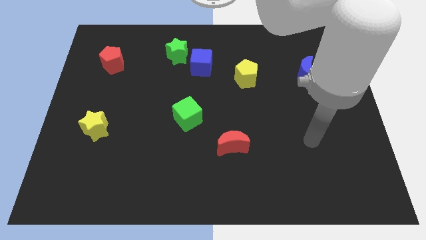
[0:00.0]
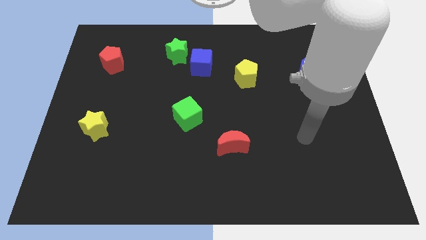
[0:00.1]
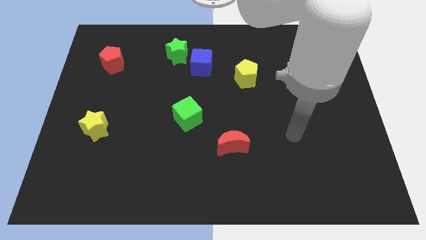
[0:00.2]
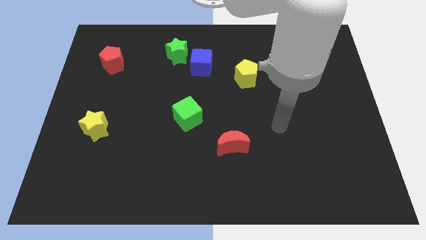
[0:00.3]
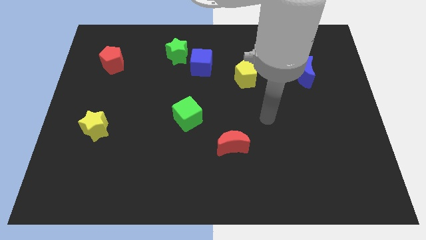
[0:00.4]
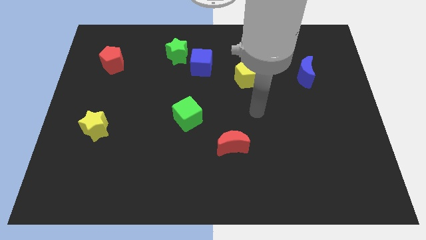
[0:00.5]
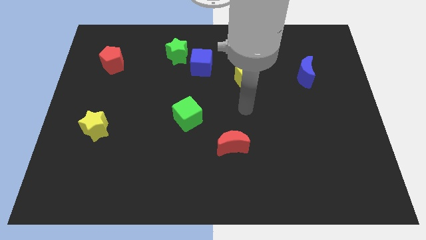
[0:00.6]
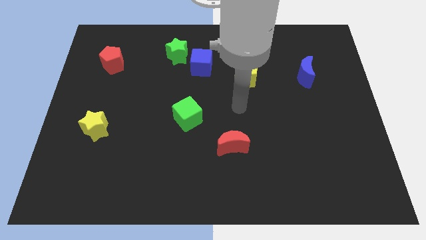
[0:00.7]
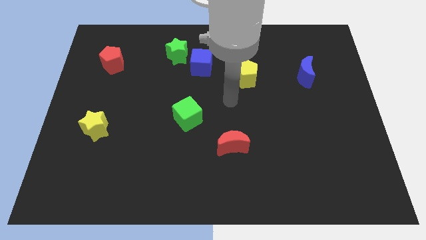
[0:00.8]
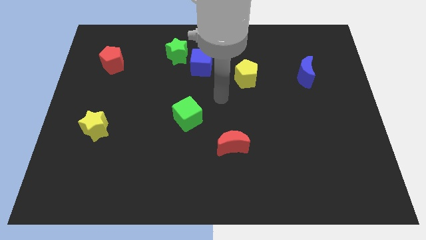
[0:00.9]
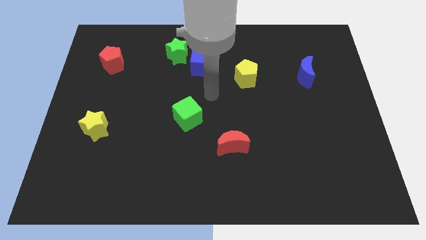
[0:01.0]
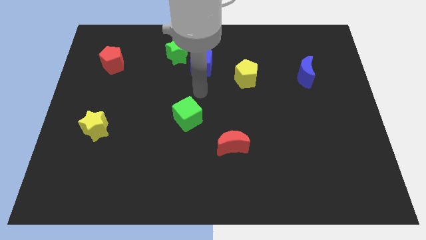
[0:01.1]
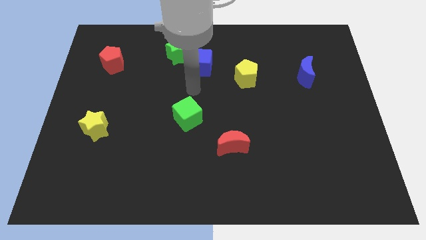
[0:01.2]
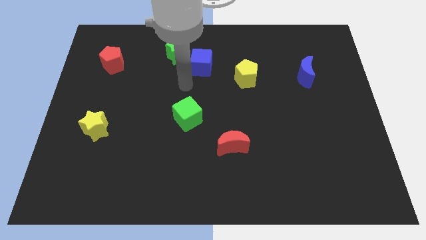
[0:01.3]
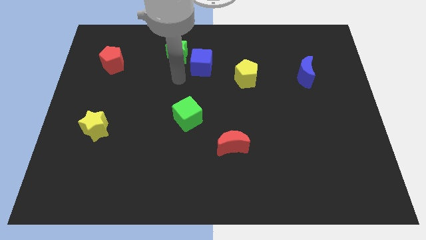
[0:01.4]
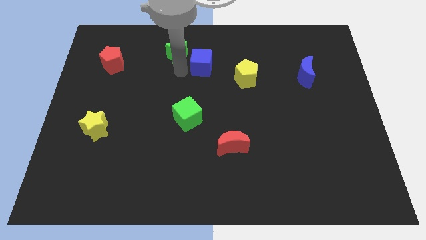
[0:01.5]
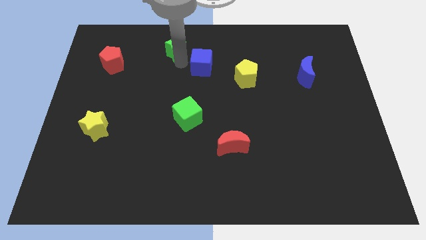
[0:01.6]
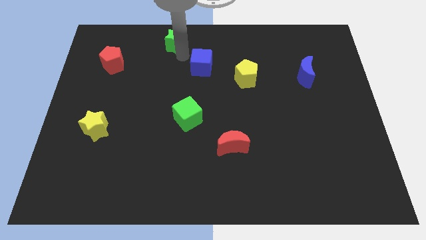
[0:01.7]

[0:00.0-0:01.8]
pull the blue cube apart from the green star

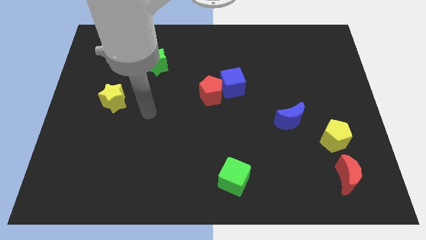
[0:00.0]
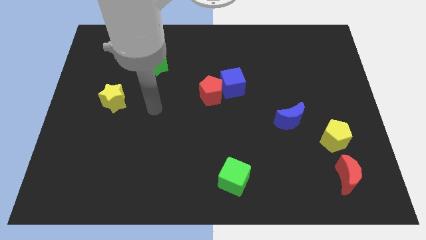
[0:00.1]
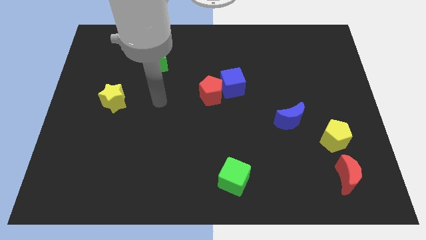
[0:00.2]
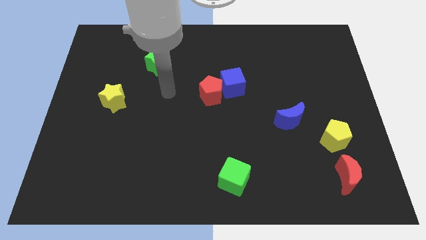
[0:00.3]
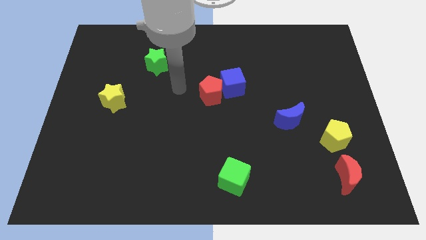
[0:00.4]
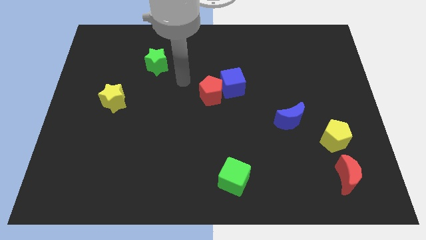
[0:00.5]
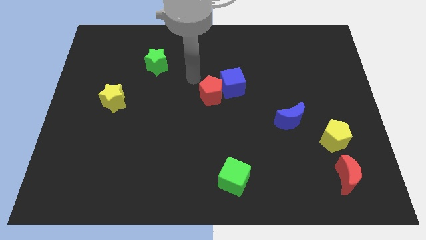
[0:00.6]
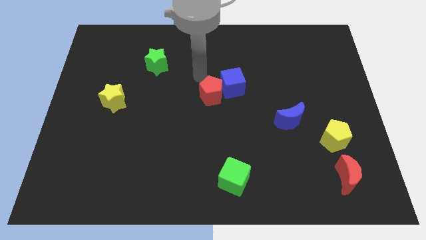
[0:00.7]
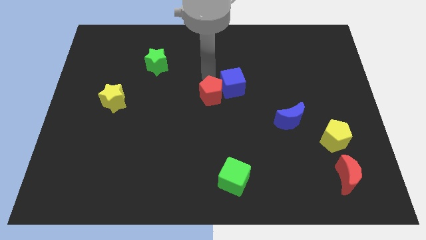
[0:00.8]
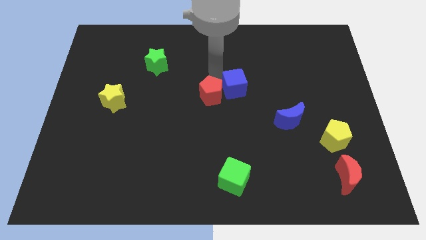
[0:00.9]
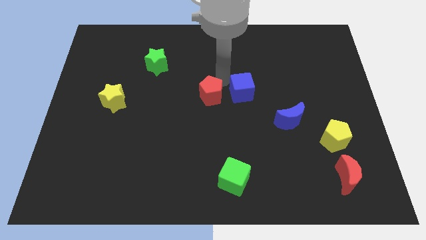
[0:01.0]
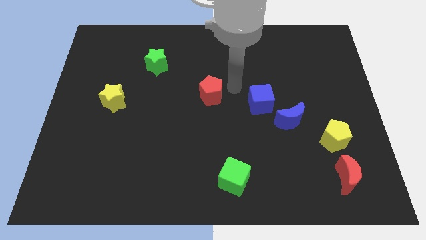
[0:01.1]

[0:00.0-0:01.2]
separate the red pentagon from the blue cube

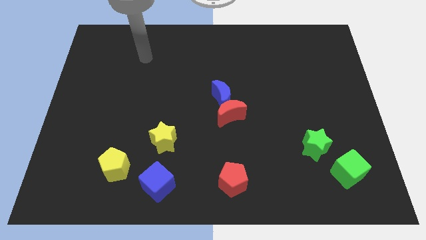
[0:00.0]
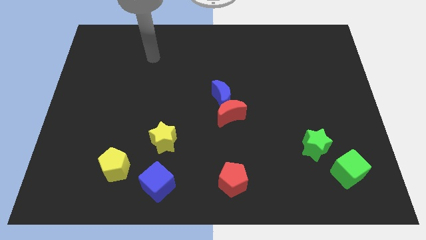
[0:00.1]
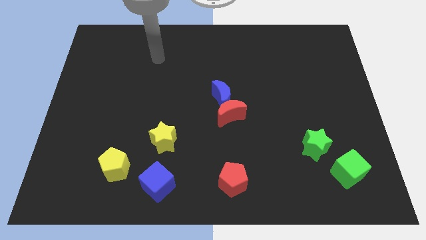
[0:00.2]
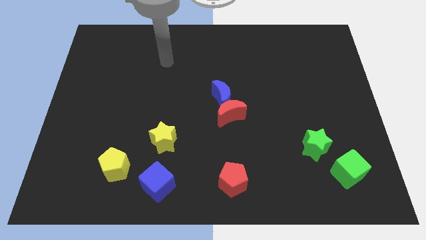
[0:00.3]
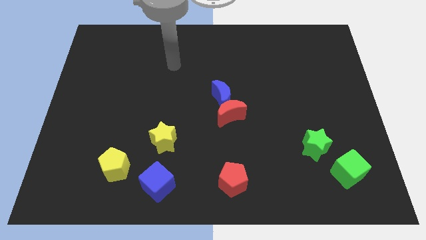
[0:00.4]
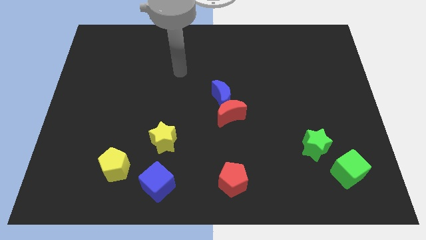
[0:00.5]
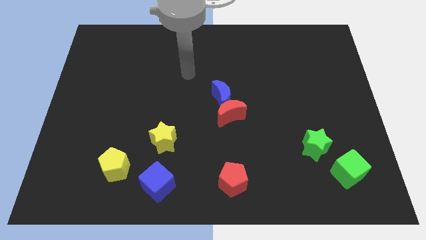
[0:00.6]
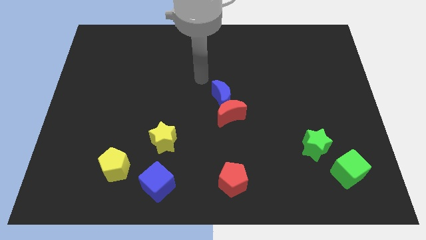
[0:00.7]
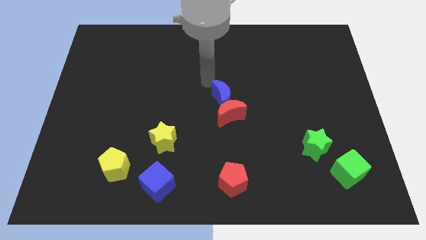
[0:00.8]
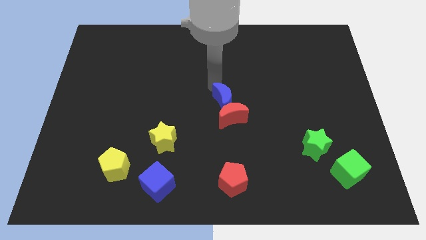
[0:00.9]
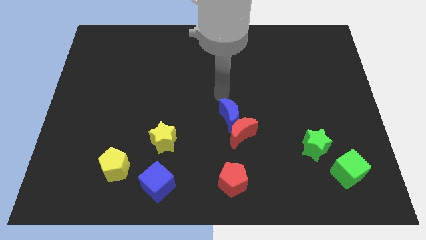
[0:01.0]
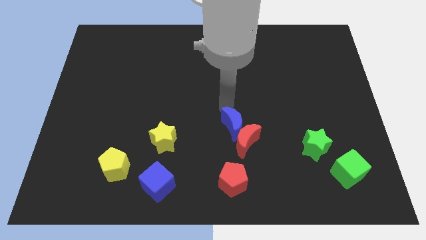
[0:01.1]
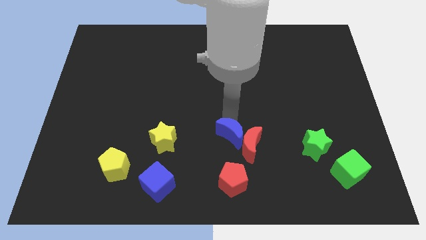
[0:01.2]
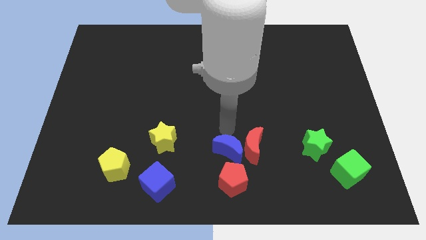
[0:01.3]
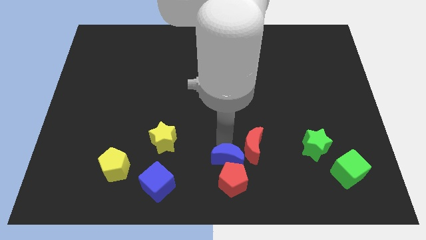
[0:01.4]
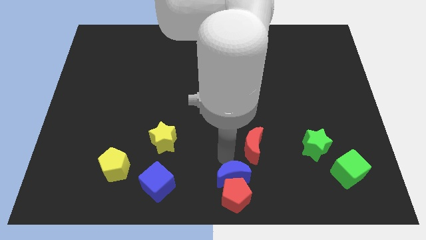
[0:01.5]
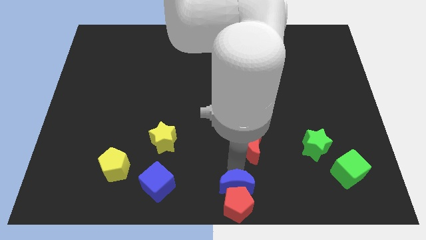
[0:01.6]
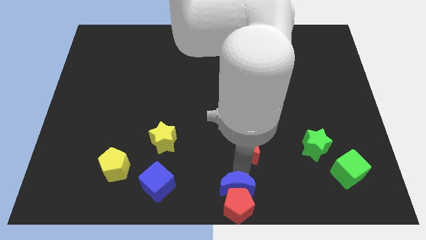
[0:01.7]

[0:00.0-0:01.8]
move the red moon away from the blue moon

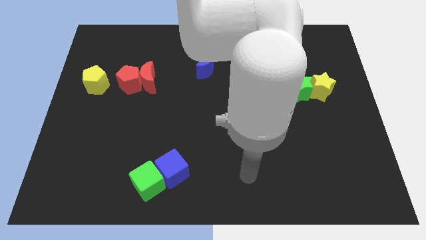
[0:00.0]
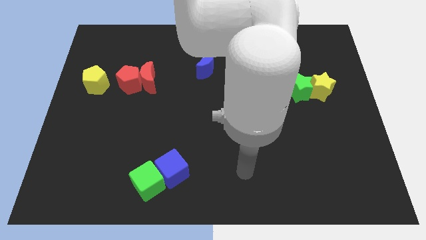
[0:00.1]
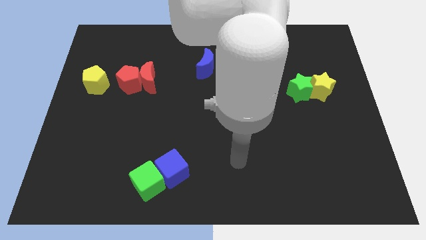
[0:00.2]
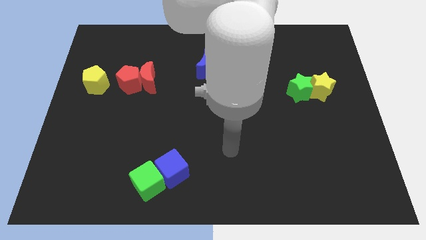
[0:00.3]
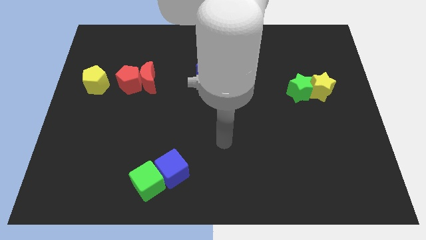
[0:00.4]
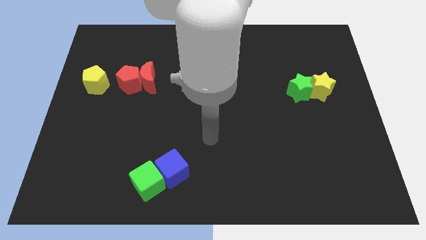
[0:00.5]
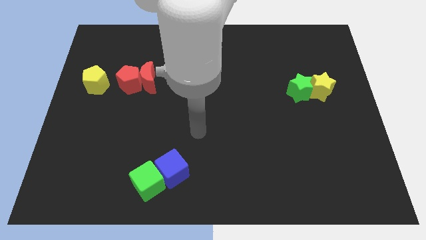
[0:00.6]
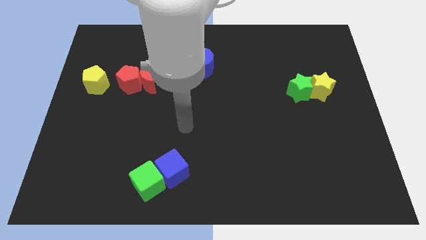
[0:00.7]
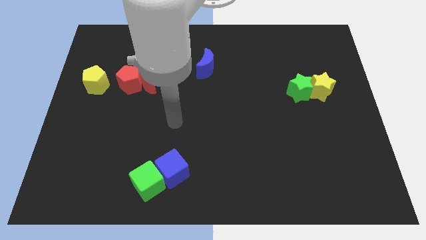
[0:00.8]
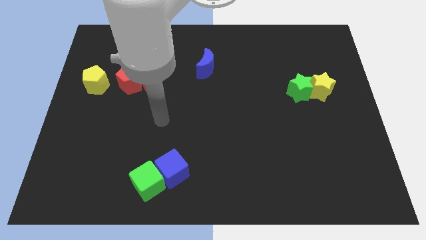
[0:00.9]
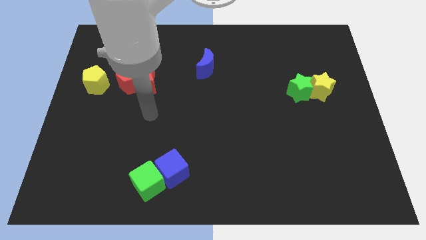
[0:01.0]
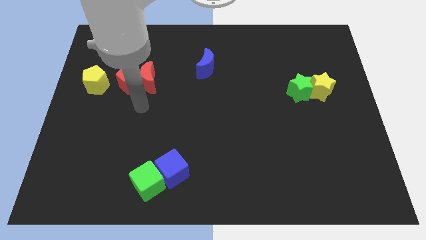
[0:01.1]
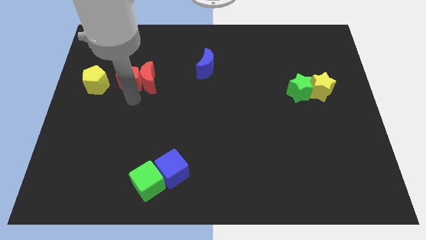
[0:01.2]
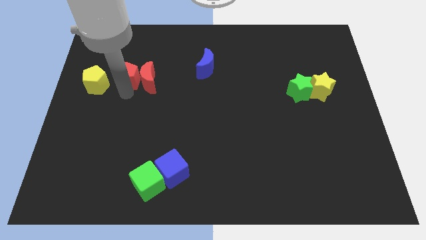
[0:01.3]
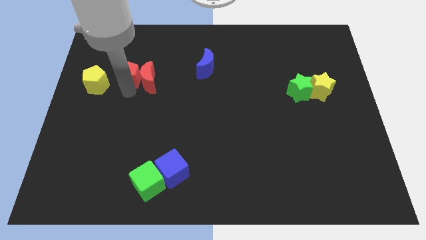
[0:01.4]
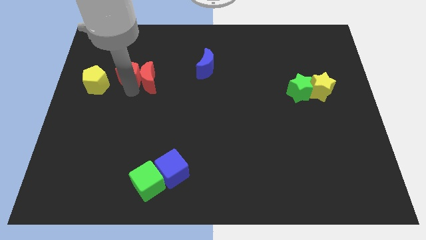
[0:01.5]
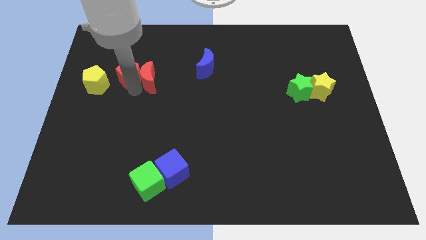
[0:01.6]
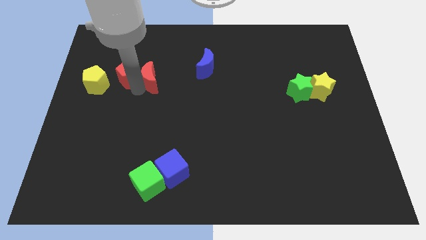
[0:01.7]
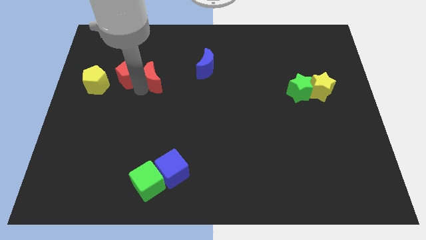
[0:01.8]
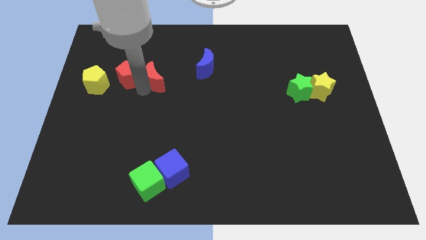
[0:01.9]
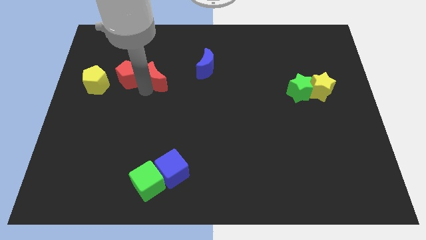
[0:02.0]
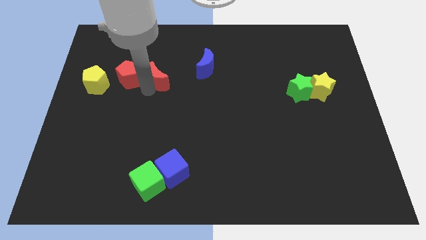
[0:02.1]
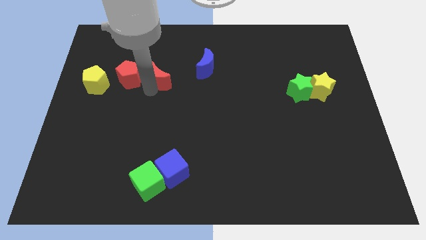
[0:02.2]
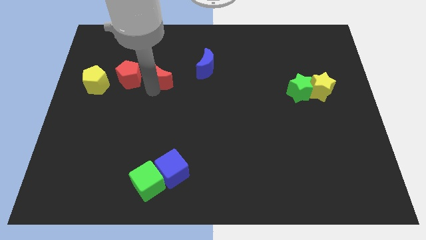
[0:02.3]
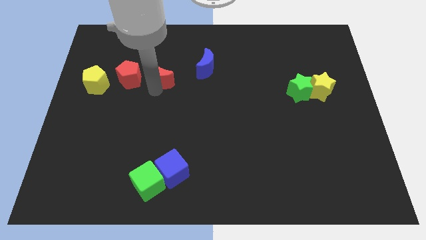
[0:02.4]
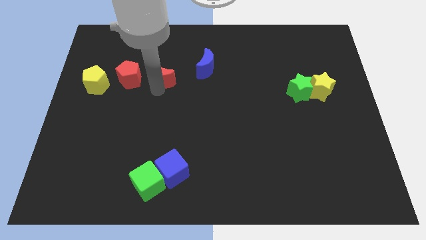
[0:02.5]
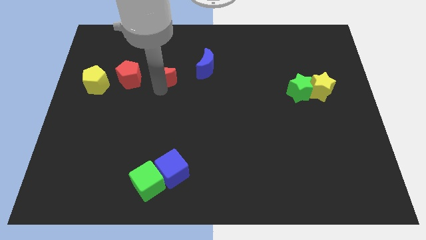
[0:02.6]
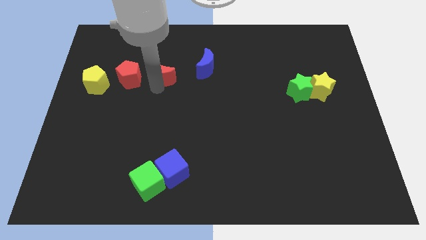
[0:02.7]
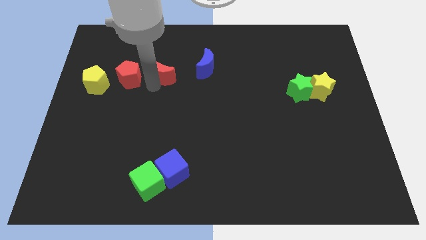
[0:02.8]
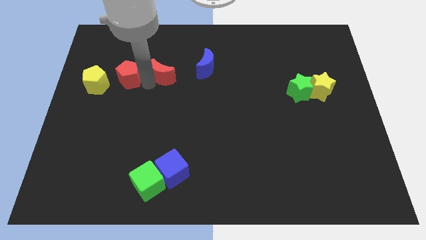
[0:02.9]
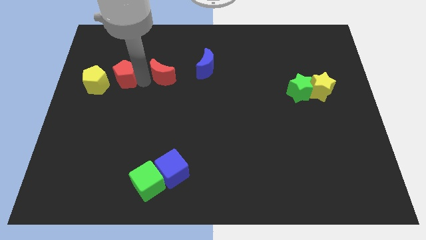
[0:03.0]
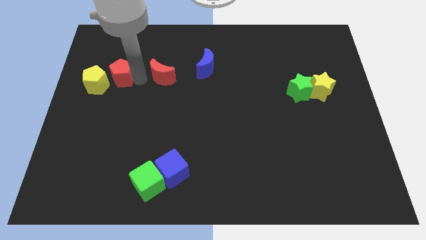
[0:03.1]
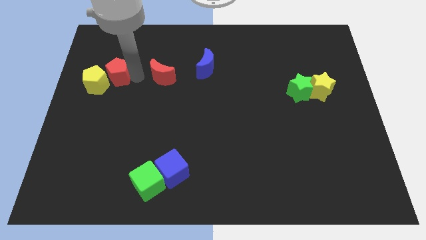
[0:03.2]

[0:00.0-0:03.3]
pull the red moon apart from the red pentagon

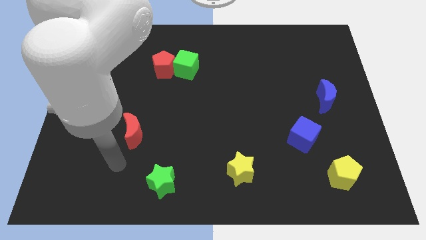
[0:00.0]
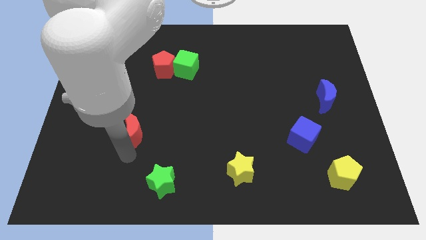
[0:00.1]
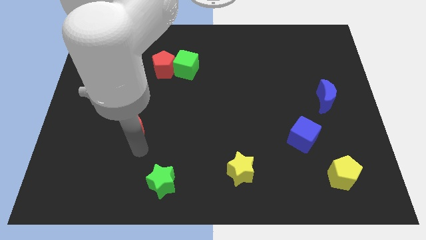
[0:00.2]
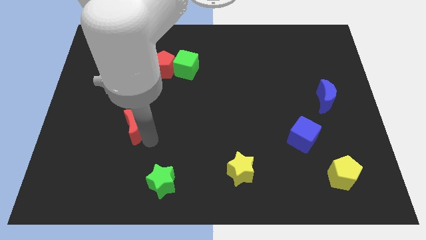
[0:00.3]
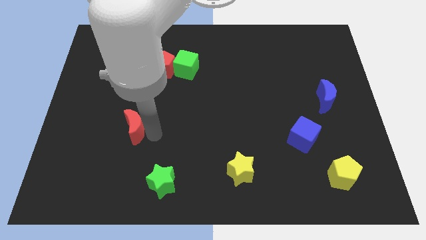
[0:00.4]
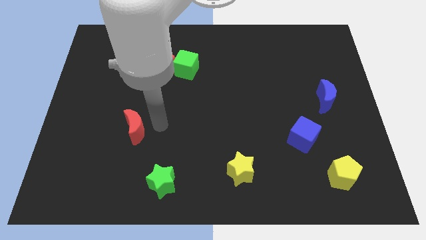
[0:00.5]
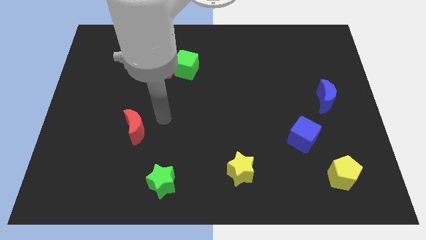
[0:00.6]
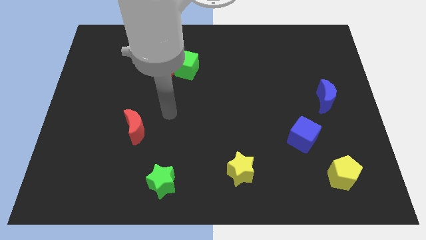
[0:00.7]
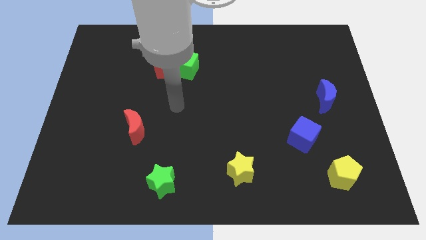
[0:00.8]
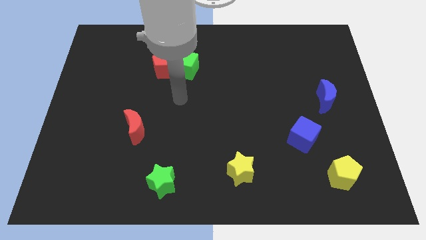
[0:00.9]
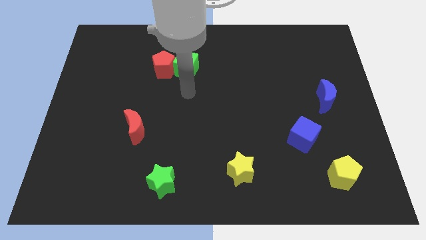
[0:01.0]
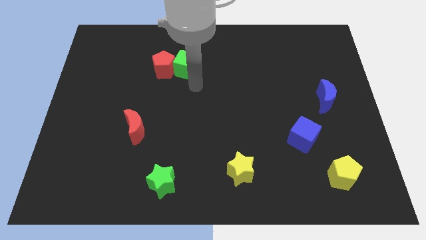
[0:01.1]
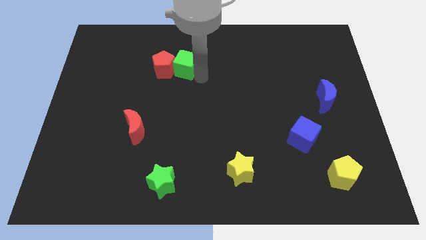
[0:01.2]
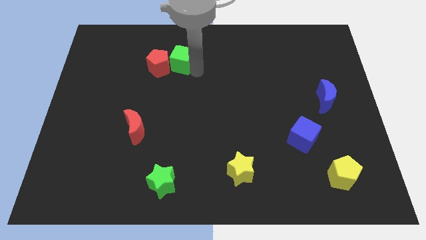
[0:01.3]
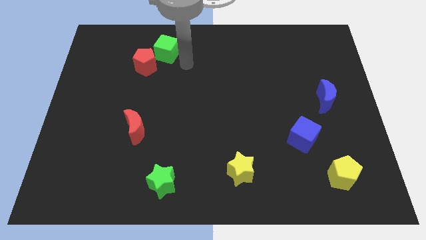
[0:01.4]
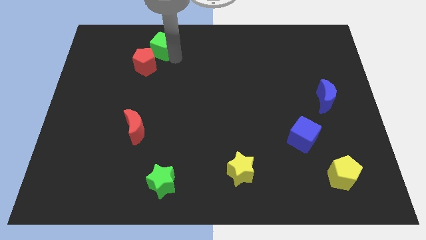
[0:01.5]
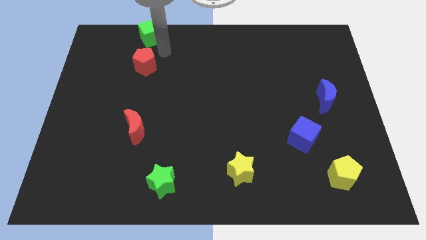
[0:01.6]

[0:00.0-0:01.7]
pull the red pentagon apart from the green cube
